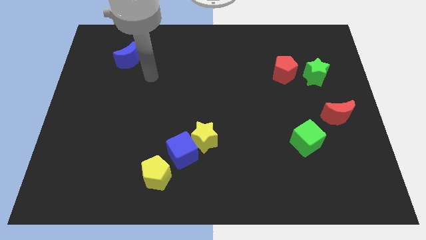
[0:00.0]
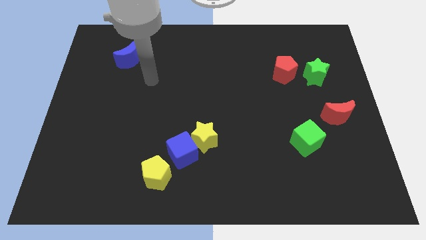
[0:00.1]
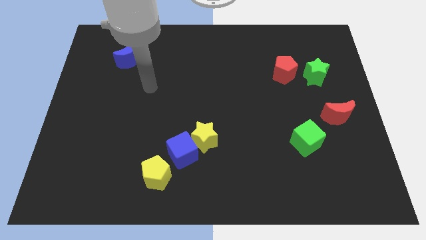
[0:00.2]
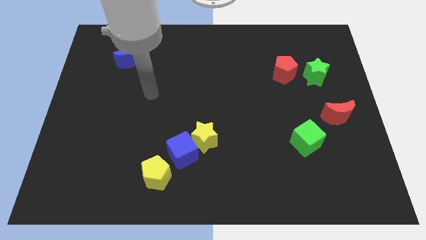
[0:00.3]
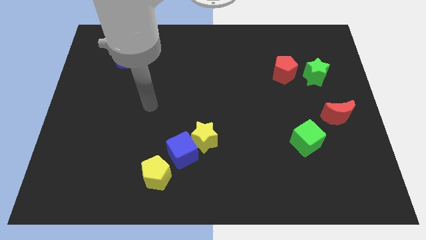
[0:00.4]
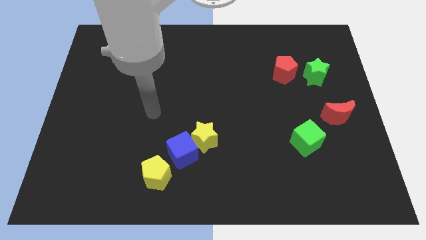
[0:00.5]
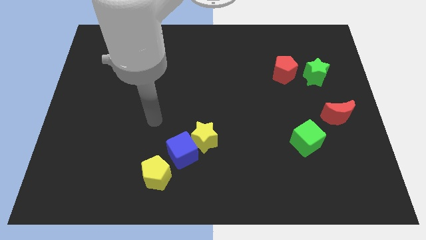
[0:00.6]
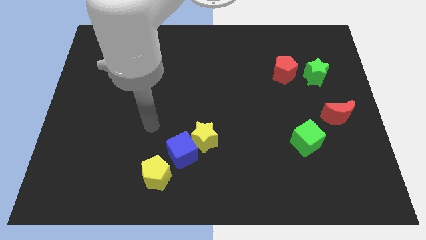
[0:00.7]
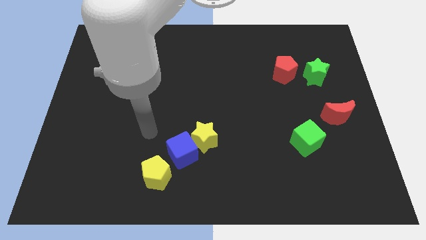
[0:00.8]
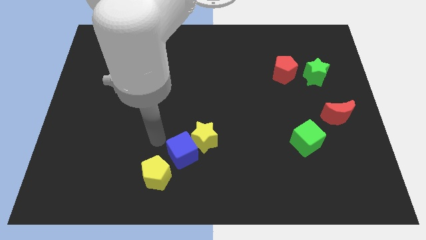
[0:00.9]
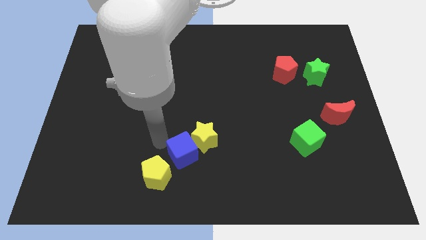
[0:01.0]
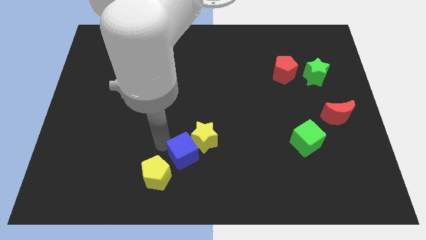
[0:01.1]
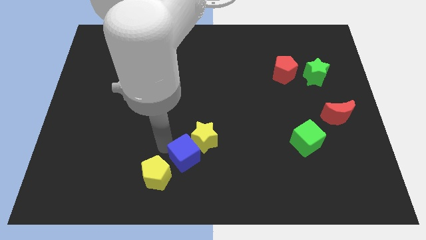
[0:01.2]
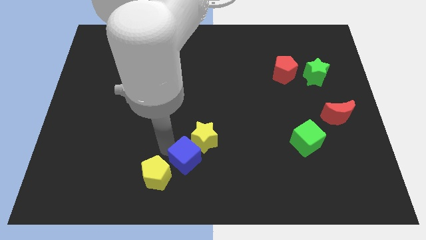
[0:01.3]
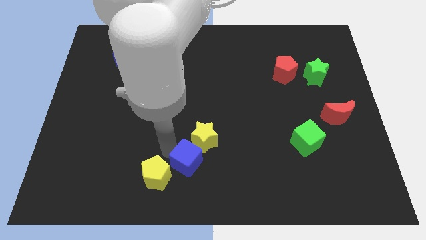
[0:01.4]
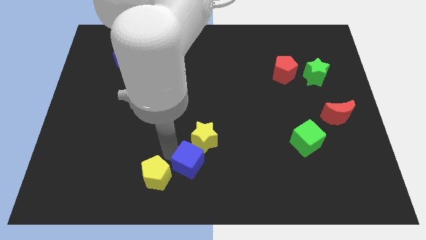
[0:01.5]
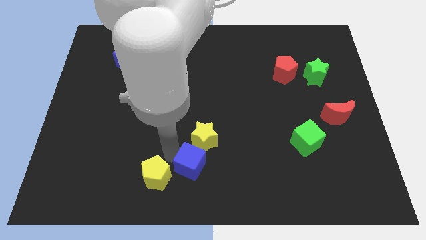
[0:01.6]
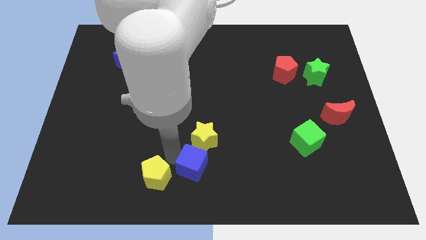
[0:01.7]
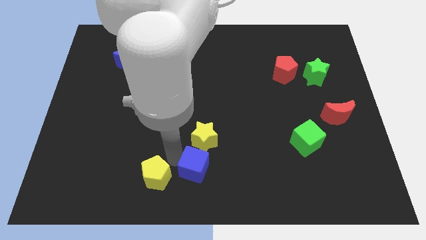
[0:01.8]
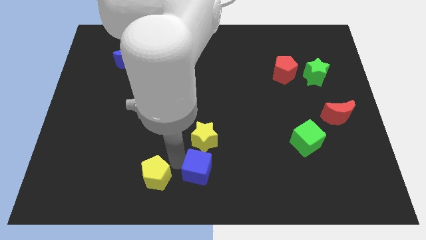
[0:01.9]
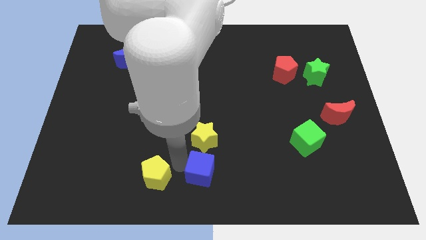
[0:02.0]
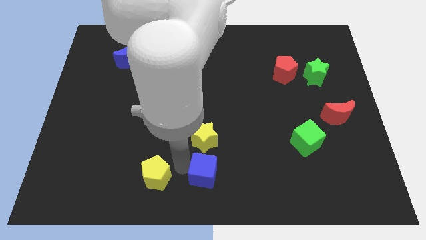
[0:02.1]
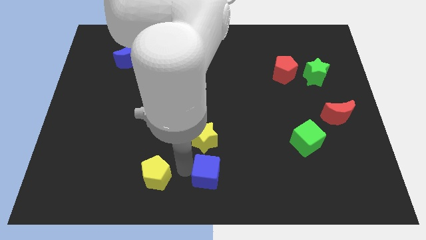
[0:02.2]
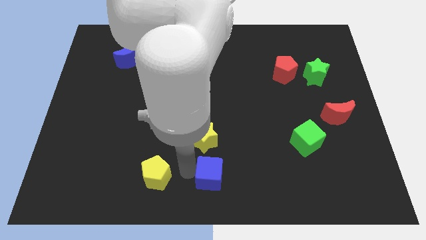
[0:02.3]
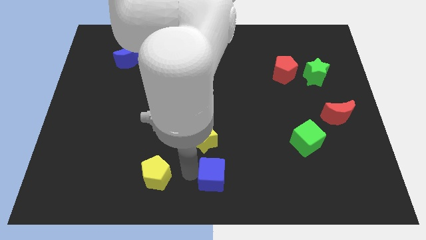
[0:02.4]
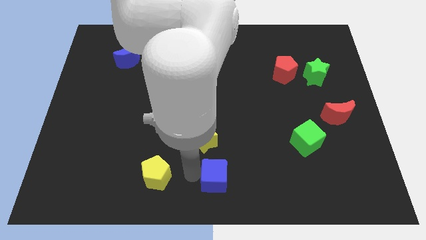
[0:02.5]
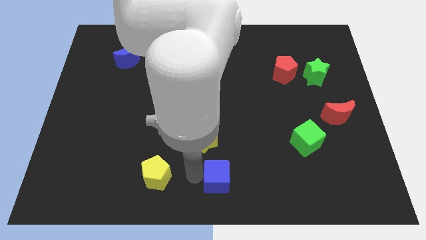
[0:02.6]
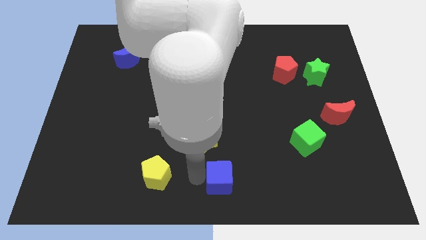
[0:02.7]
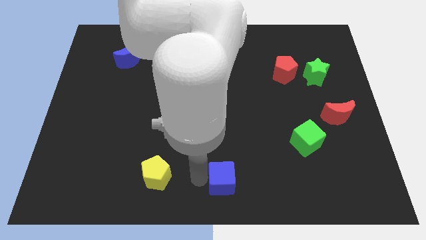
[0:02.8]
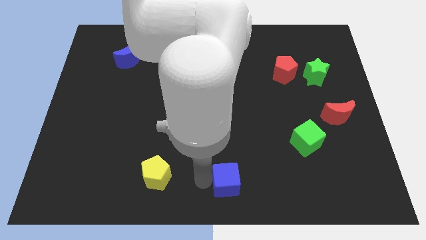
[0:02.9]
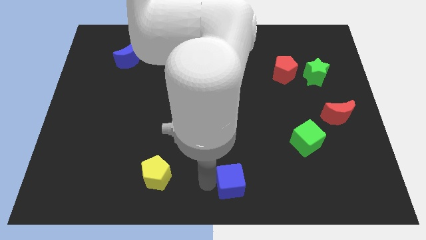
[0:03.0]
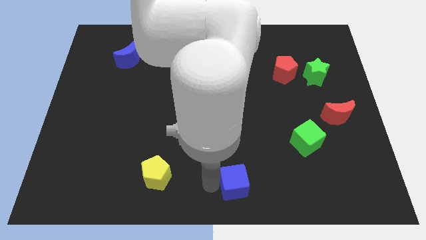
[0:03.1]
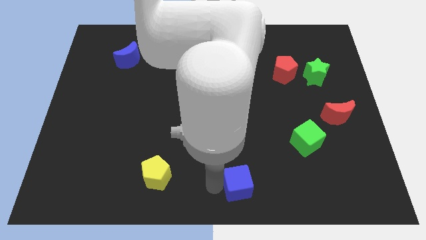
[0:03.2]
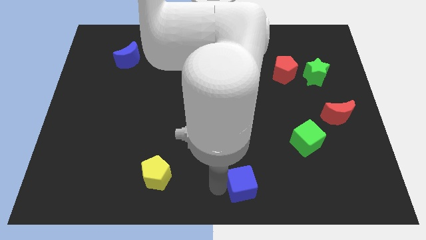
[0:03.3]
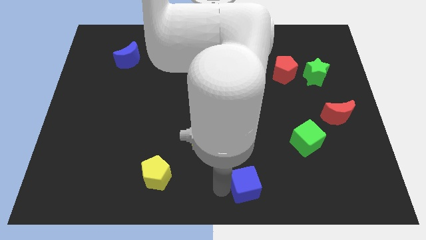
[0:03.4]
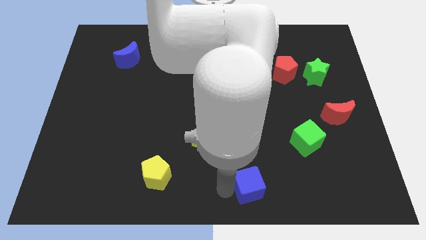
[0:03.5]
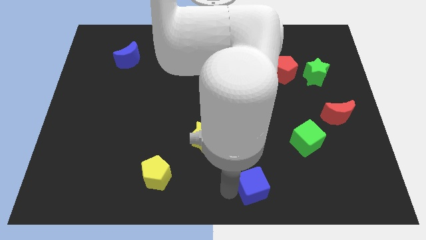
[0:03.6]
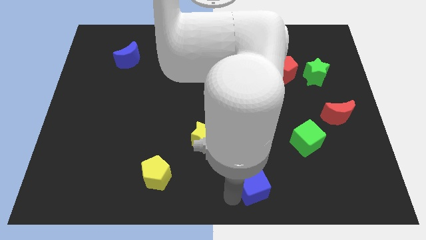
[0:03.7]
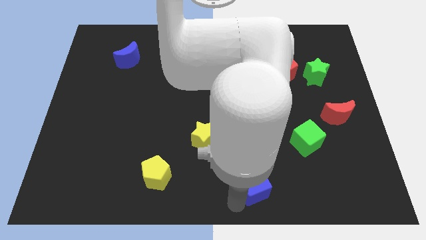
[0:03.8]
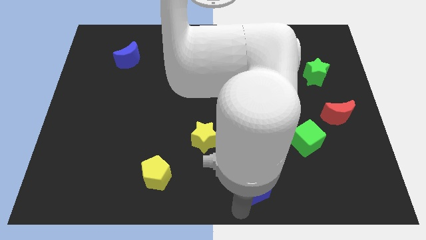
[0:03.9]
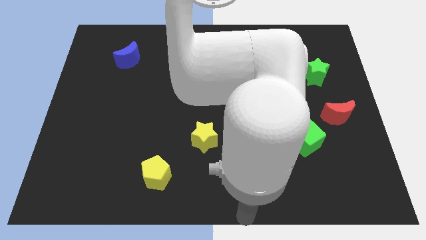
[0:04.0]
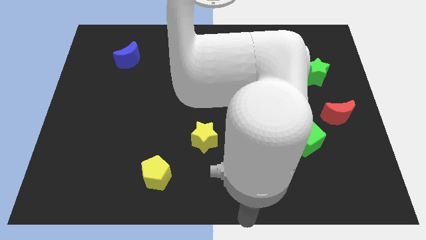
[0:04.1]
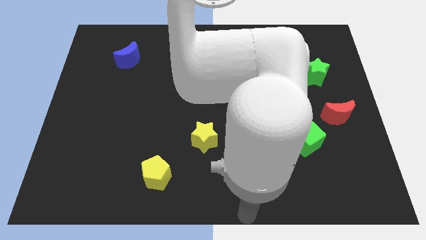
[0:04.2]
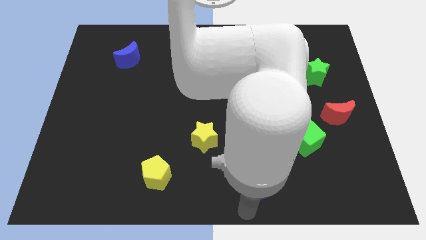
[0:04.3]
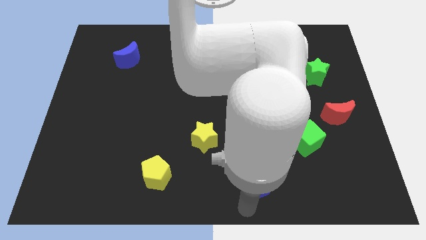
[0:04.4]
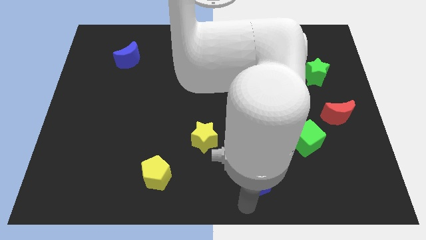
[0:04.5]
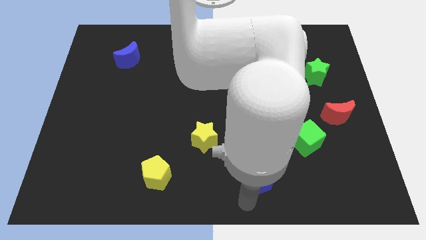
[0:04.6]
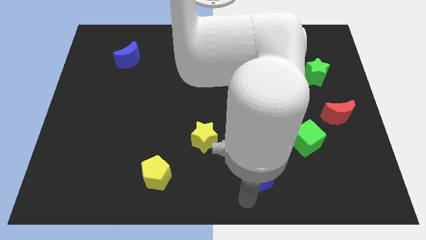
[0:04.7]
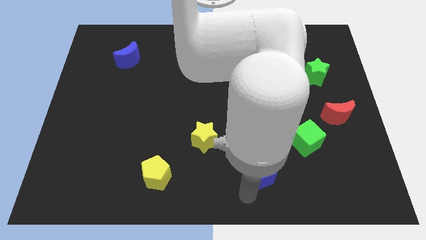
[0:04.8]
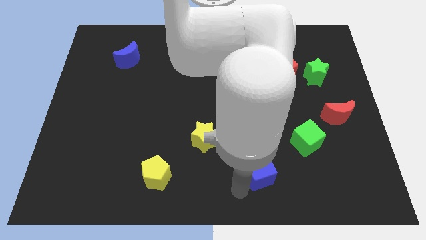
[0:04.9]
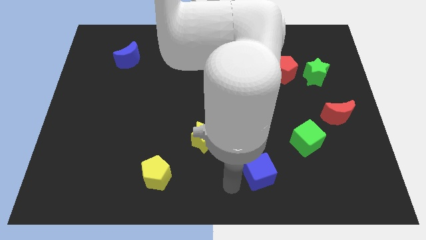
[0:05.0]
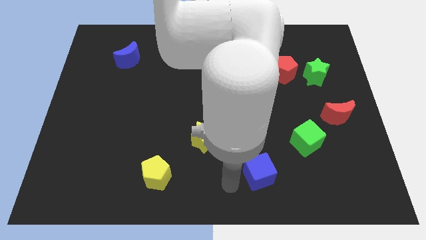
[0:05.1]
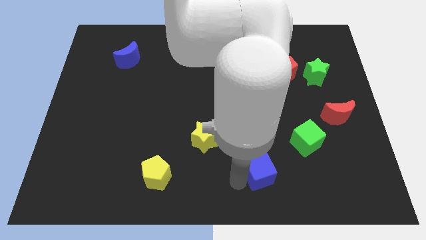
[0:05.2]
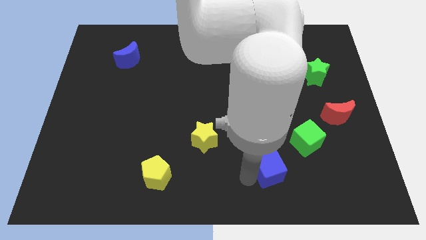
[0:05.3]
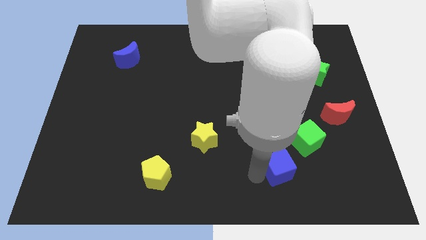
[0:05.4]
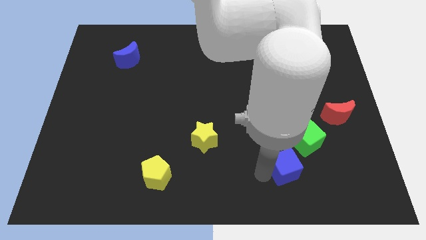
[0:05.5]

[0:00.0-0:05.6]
move the blue cube right

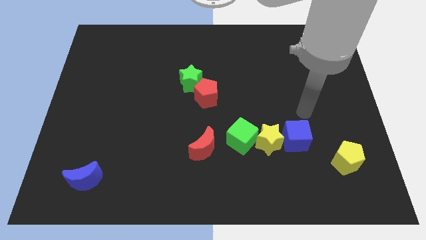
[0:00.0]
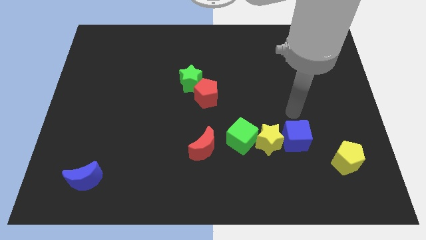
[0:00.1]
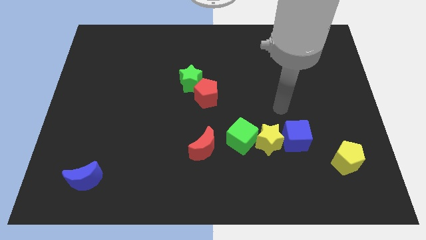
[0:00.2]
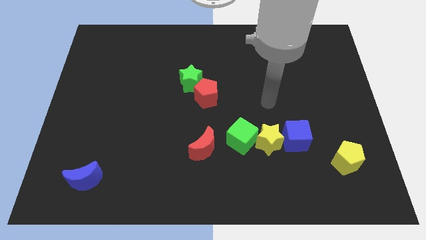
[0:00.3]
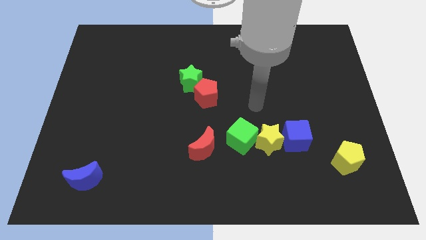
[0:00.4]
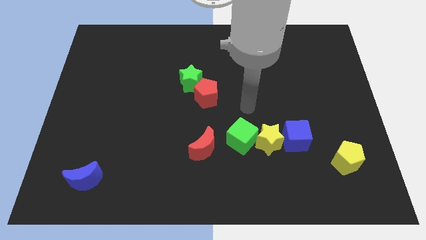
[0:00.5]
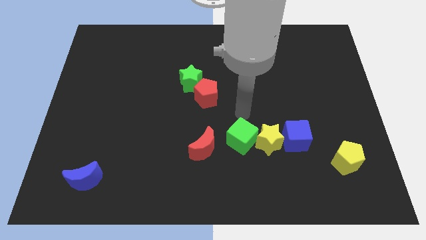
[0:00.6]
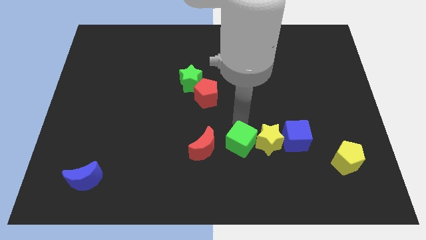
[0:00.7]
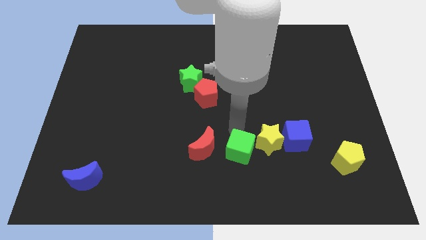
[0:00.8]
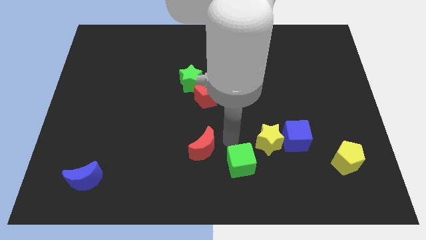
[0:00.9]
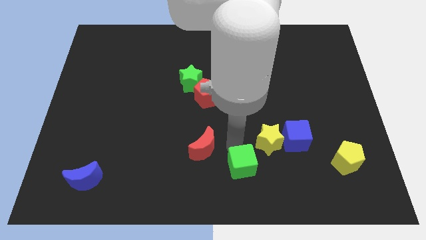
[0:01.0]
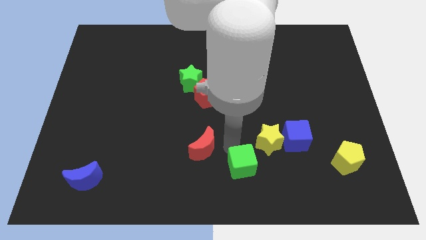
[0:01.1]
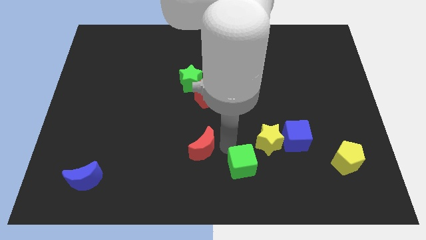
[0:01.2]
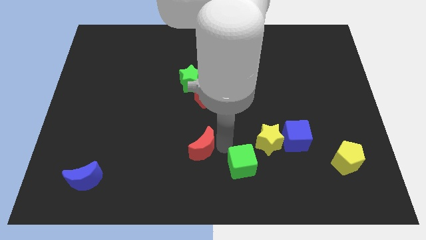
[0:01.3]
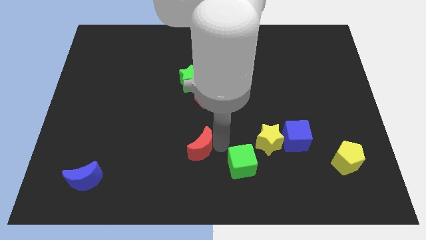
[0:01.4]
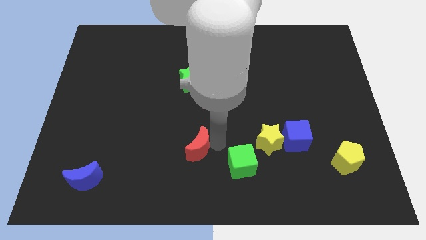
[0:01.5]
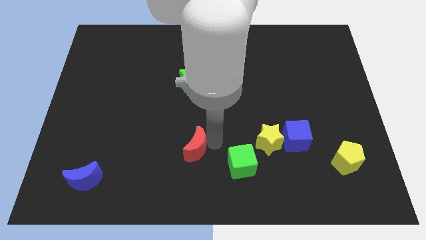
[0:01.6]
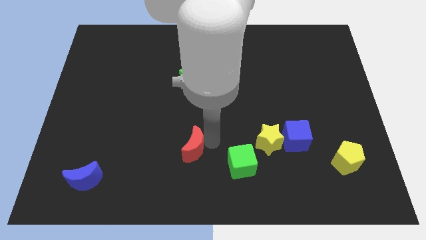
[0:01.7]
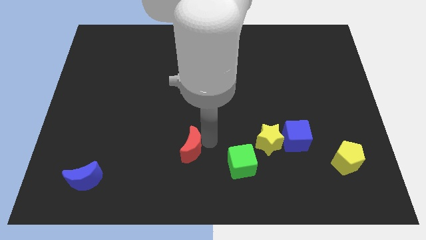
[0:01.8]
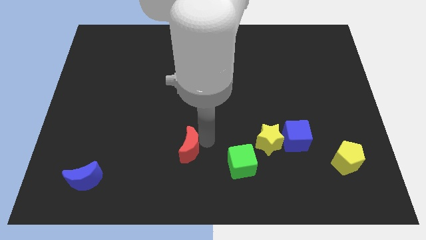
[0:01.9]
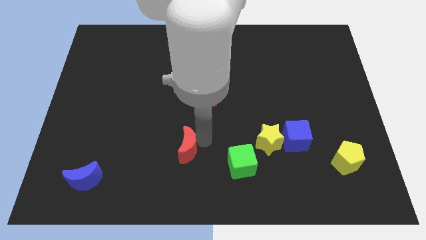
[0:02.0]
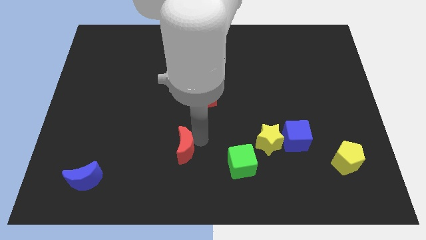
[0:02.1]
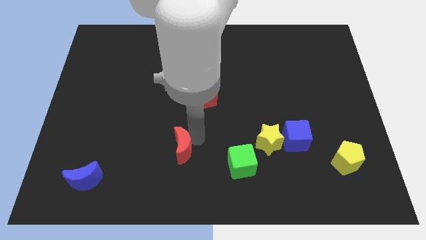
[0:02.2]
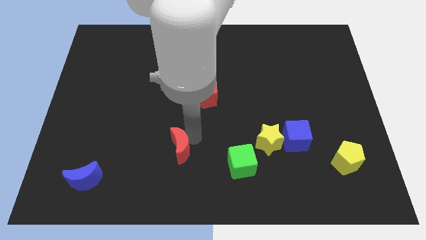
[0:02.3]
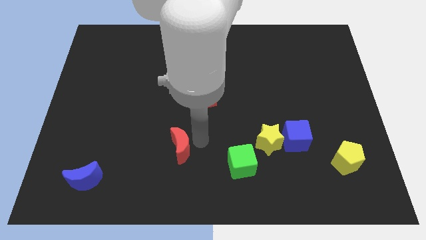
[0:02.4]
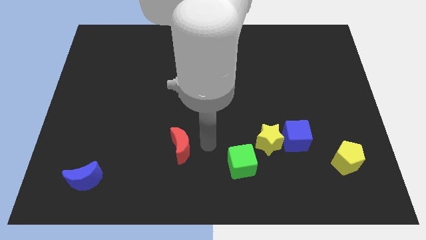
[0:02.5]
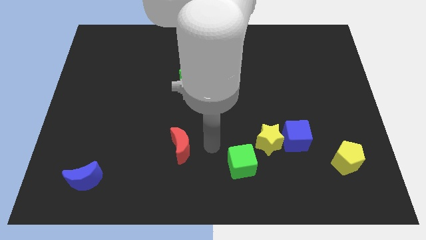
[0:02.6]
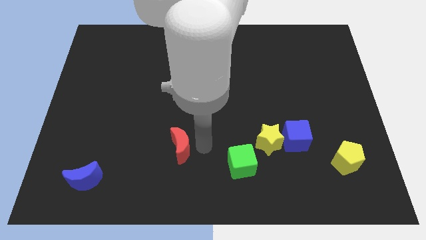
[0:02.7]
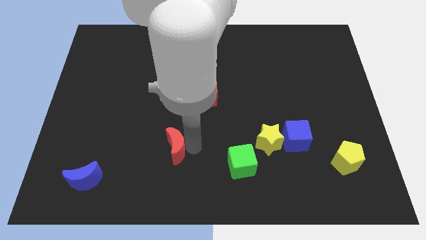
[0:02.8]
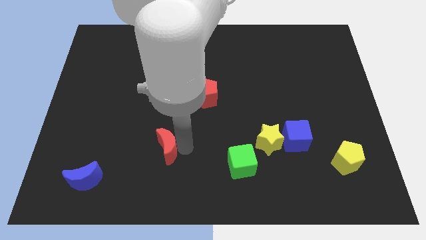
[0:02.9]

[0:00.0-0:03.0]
push the red moon a little bit left
